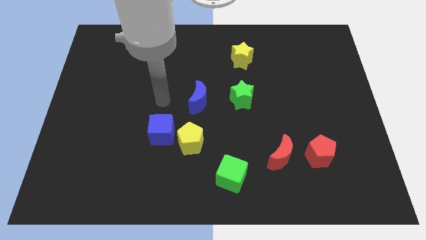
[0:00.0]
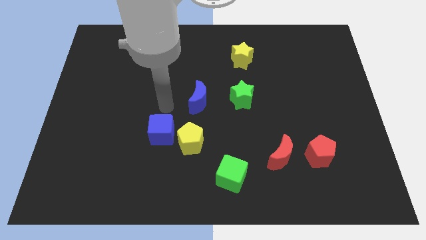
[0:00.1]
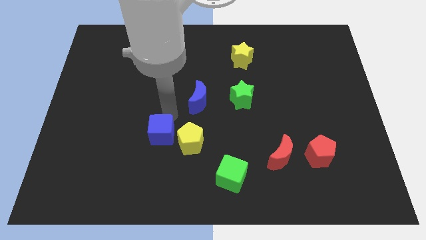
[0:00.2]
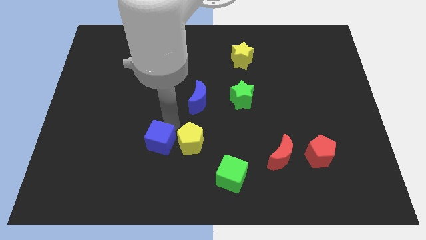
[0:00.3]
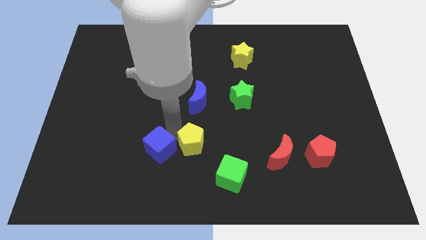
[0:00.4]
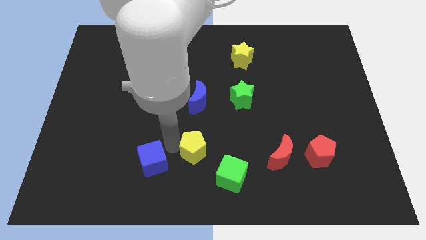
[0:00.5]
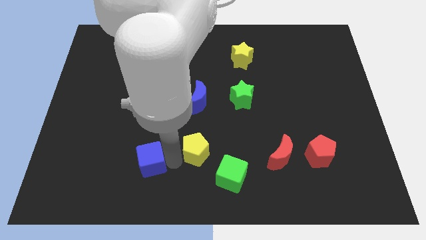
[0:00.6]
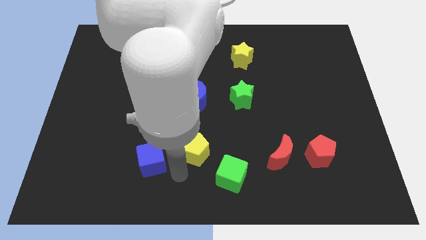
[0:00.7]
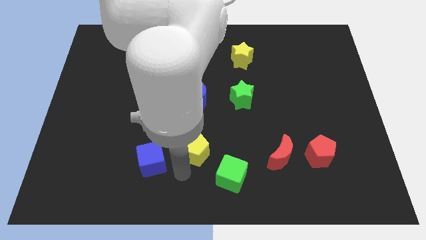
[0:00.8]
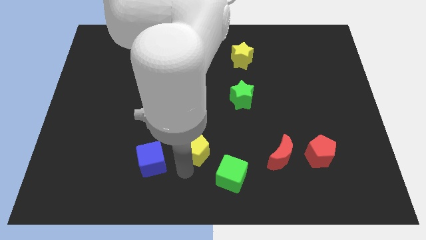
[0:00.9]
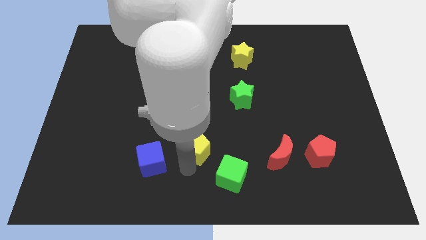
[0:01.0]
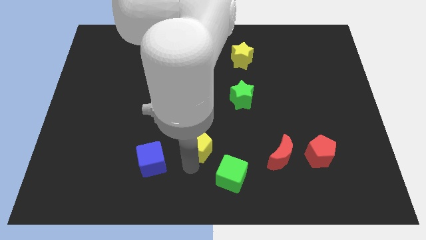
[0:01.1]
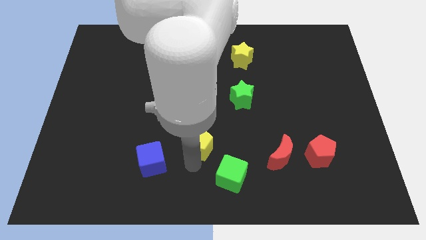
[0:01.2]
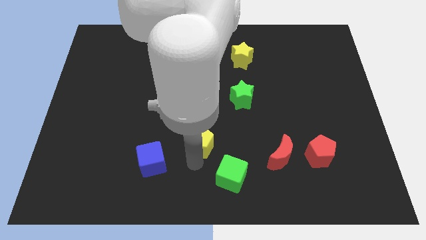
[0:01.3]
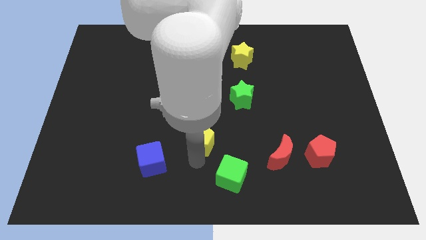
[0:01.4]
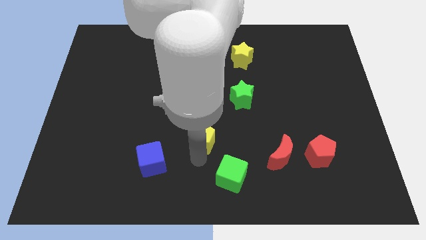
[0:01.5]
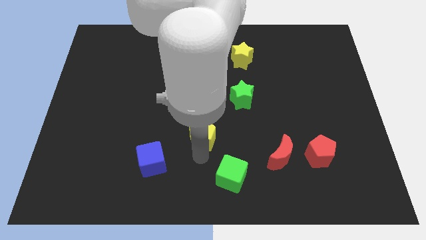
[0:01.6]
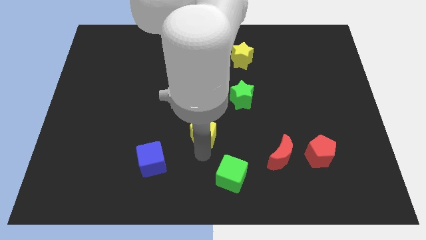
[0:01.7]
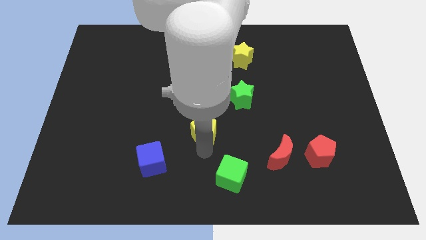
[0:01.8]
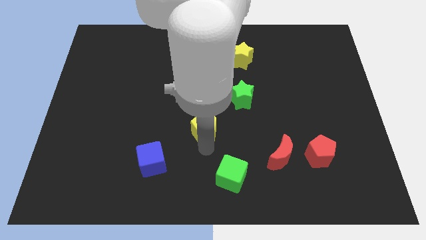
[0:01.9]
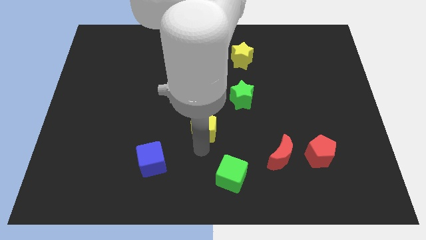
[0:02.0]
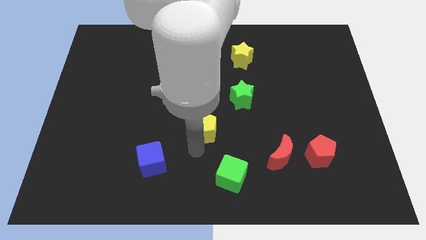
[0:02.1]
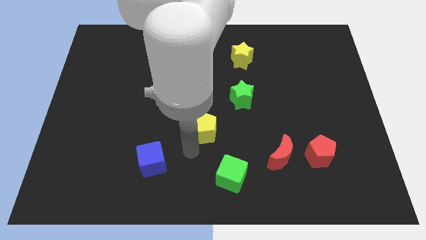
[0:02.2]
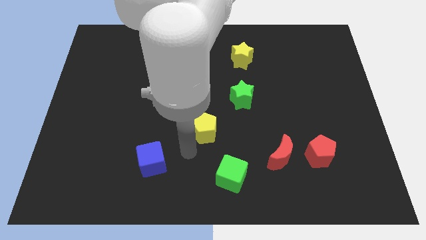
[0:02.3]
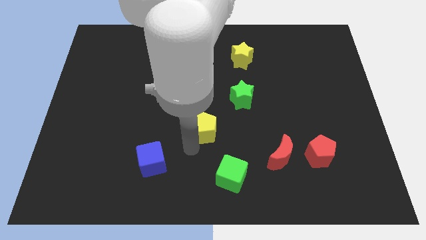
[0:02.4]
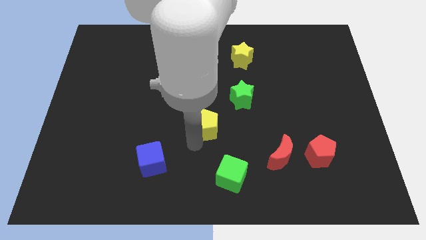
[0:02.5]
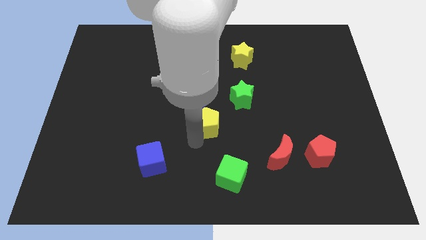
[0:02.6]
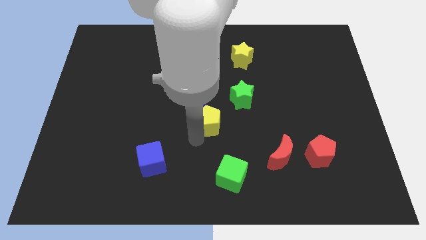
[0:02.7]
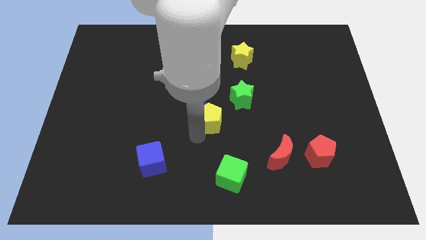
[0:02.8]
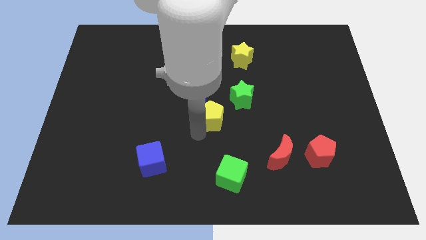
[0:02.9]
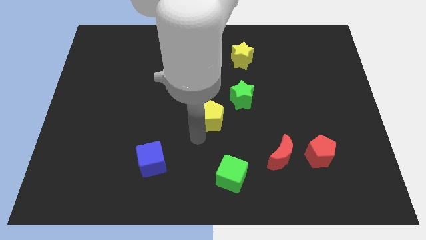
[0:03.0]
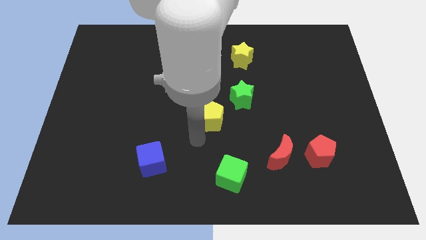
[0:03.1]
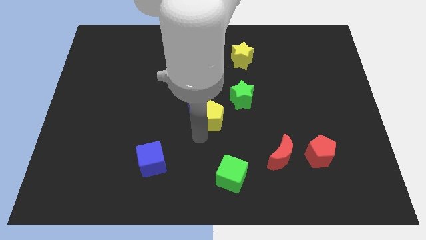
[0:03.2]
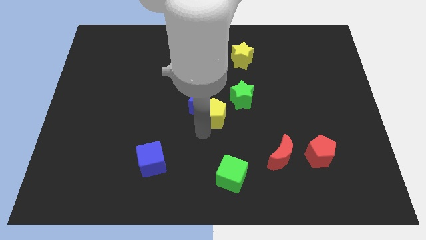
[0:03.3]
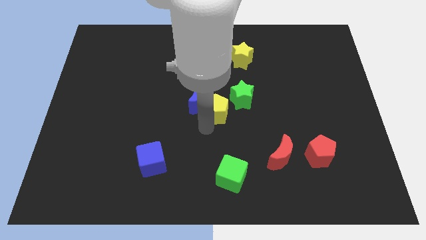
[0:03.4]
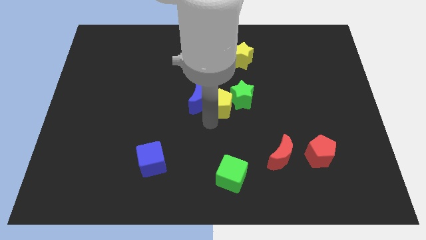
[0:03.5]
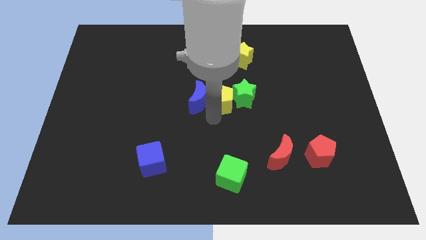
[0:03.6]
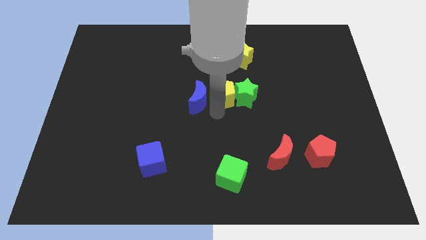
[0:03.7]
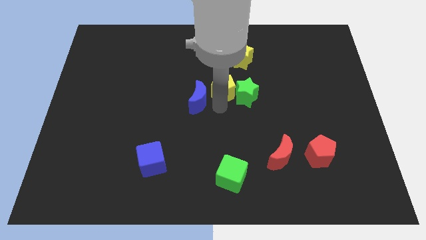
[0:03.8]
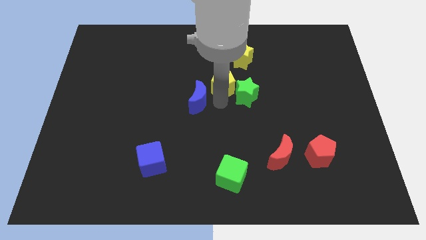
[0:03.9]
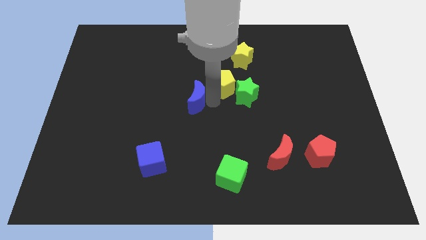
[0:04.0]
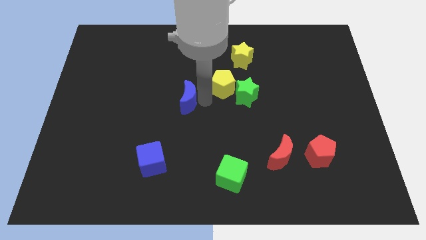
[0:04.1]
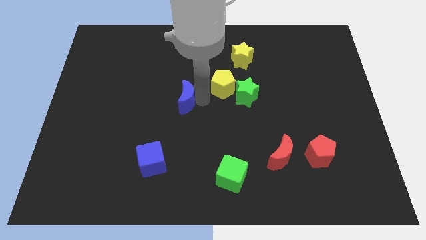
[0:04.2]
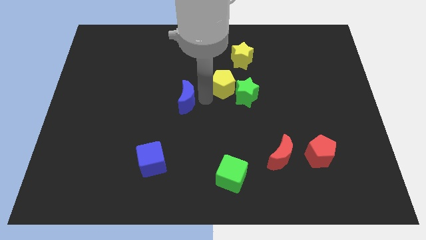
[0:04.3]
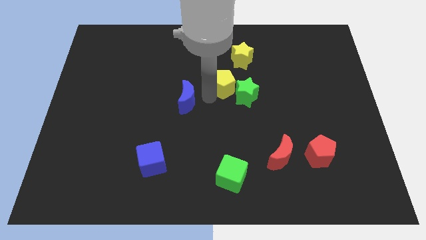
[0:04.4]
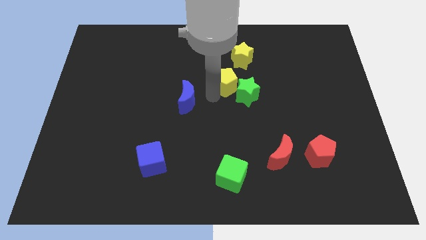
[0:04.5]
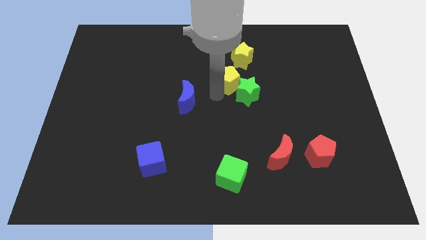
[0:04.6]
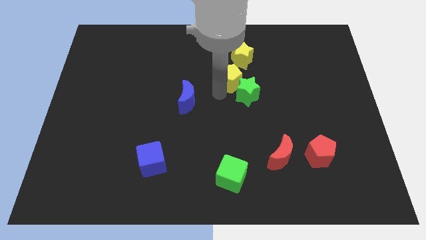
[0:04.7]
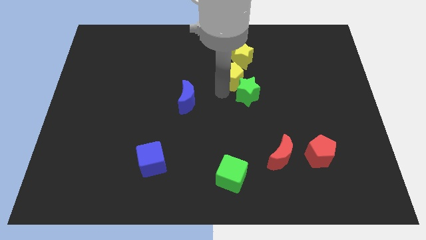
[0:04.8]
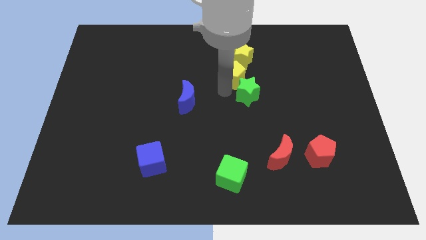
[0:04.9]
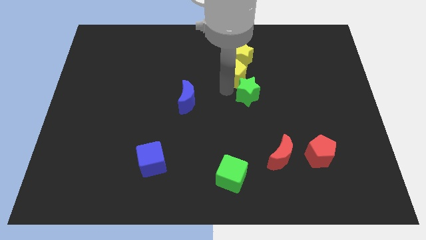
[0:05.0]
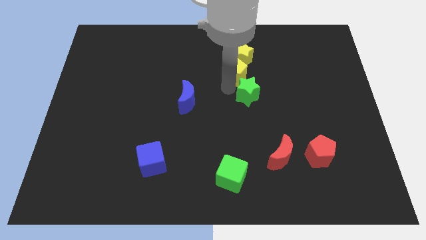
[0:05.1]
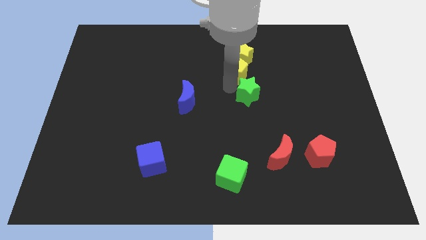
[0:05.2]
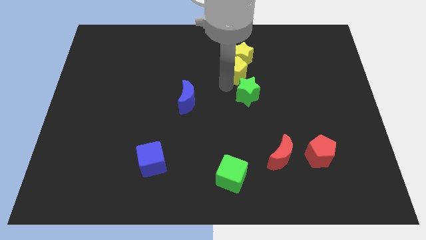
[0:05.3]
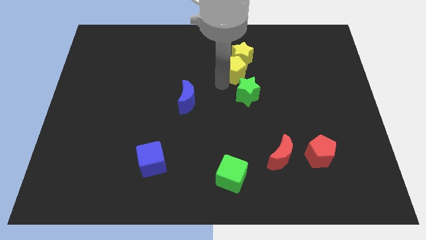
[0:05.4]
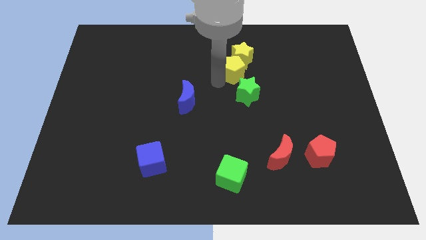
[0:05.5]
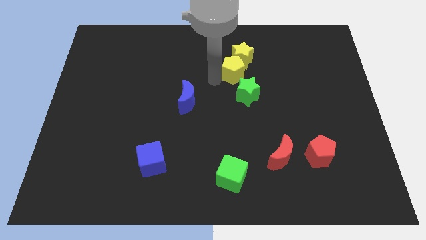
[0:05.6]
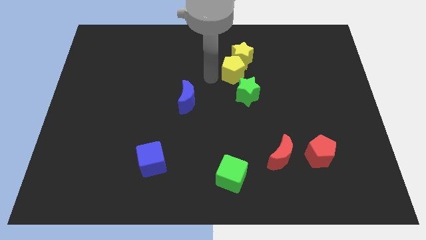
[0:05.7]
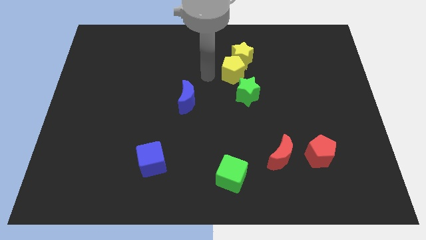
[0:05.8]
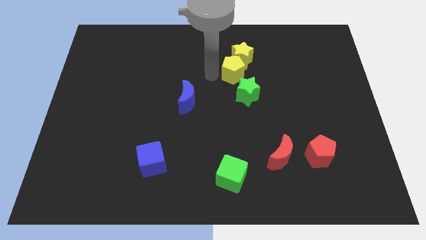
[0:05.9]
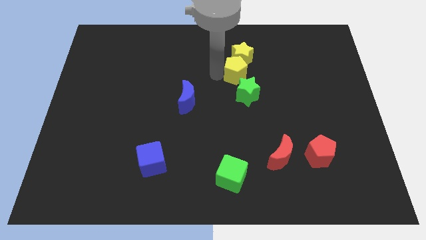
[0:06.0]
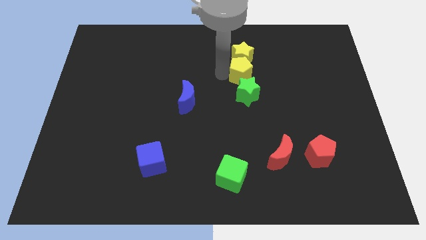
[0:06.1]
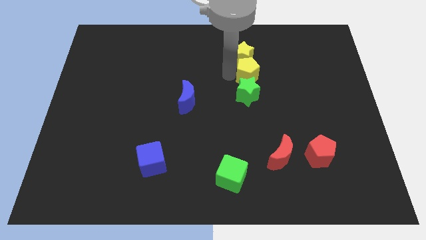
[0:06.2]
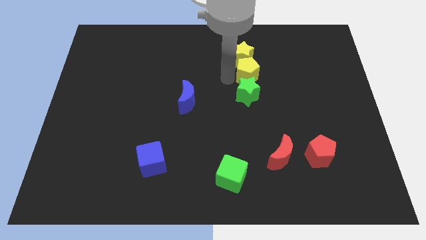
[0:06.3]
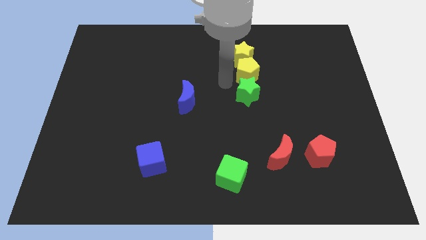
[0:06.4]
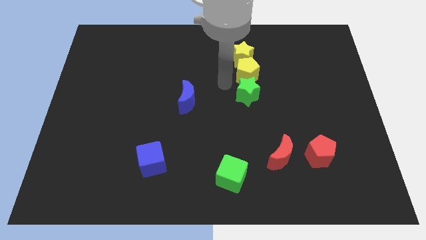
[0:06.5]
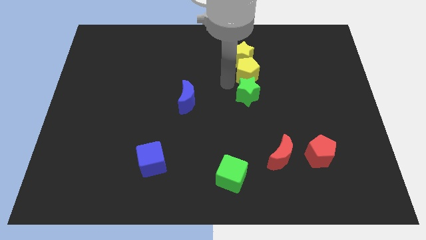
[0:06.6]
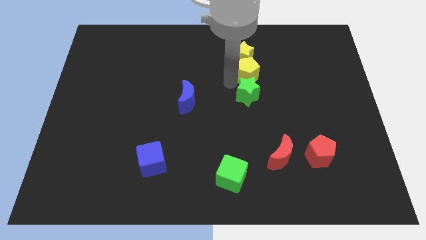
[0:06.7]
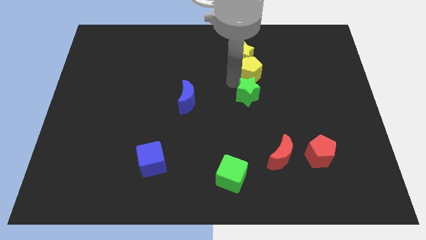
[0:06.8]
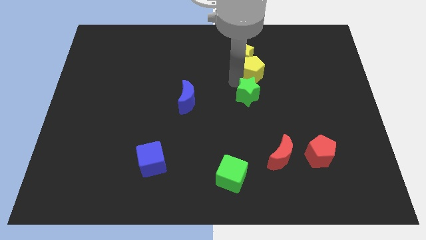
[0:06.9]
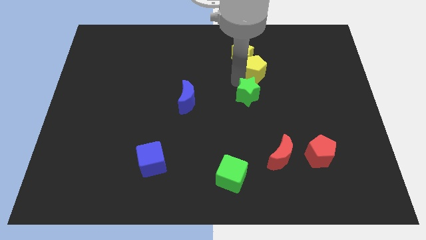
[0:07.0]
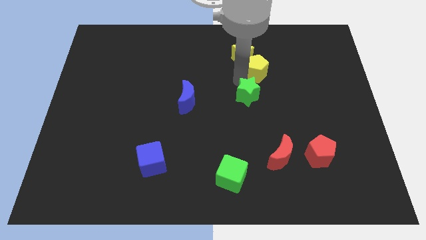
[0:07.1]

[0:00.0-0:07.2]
move the yellow pentagon to the right of the yellow star
